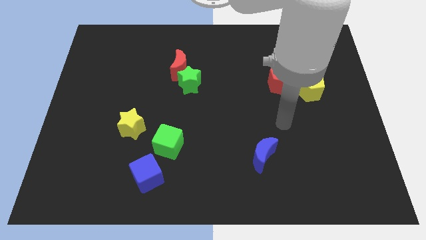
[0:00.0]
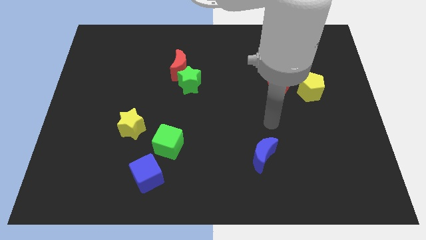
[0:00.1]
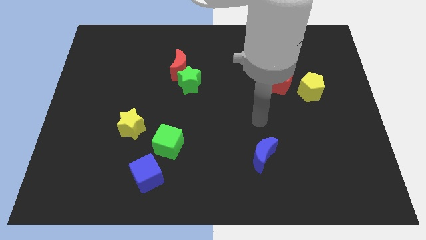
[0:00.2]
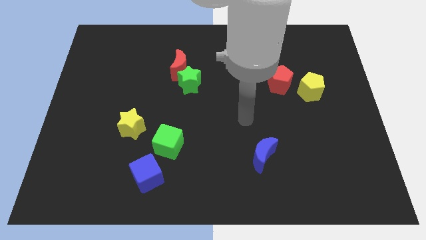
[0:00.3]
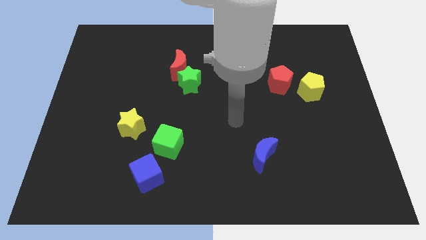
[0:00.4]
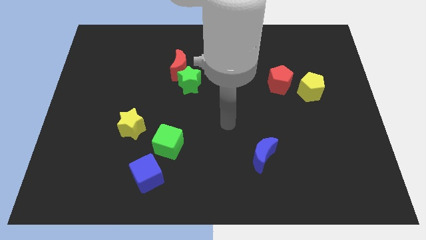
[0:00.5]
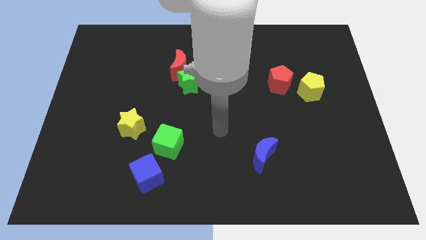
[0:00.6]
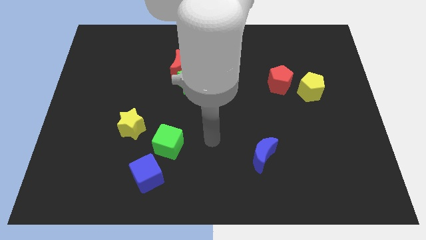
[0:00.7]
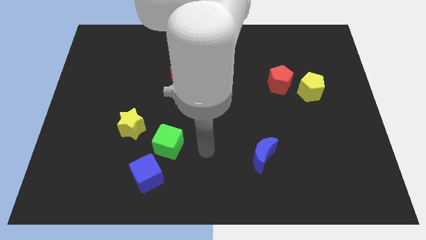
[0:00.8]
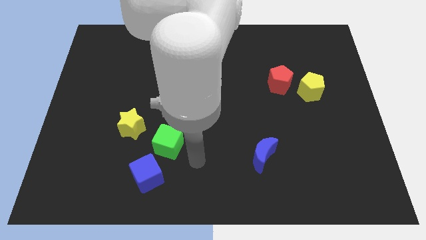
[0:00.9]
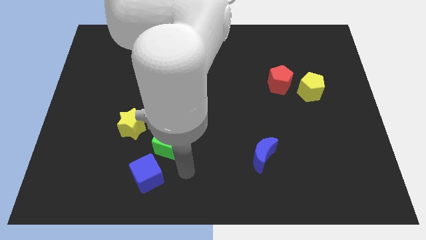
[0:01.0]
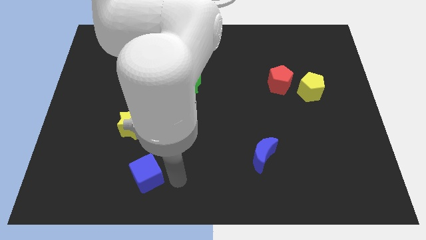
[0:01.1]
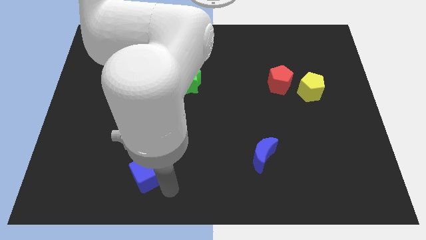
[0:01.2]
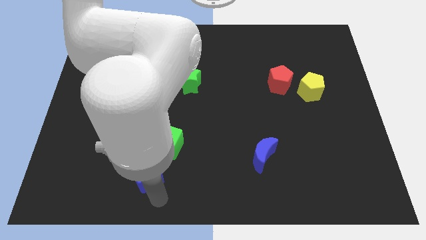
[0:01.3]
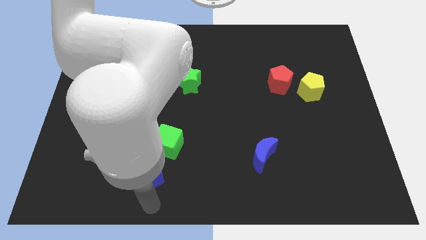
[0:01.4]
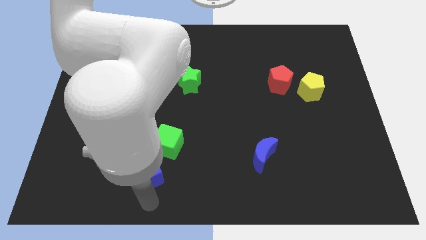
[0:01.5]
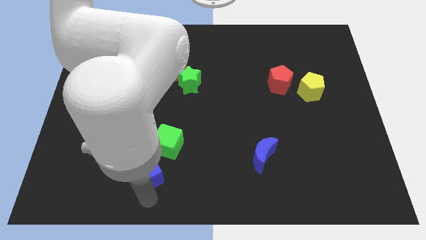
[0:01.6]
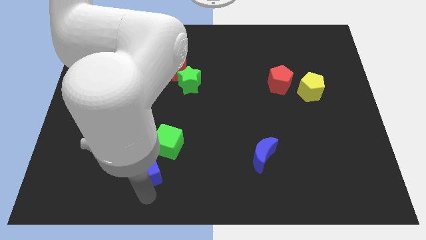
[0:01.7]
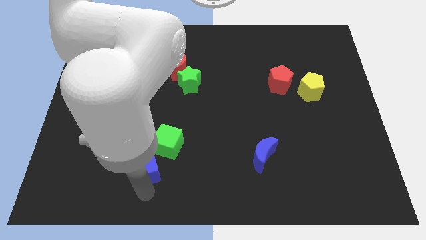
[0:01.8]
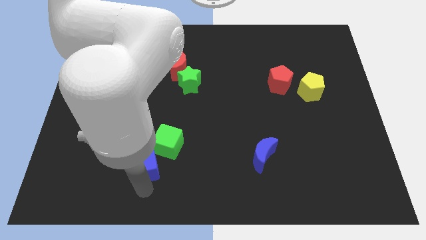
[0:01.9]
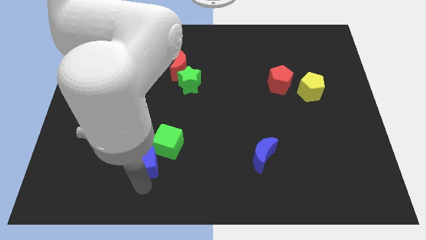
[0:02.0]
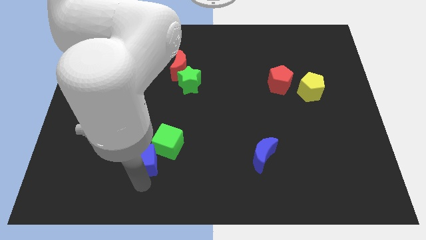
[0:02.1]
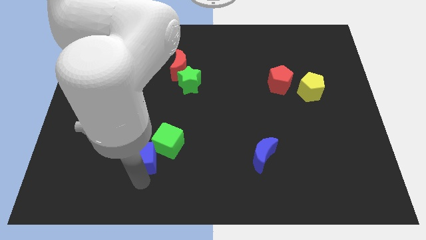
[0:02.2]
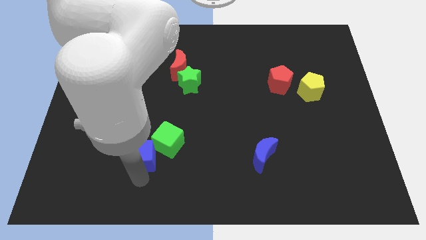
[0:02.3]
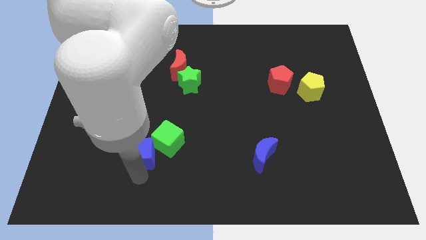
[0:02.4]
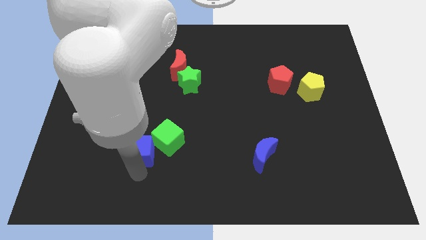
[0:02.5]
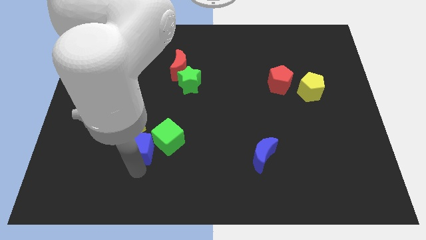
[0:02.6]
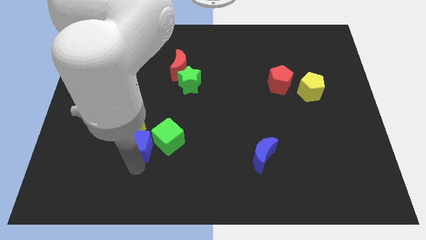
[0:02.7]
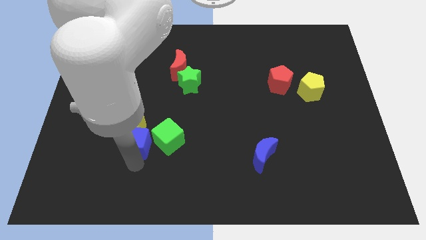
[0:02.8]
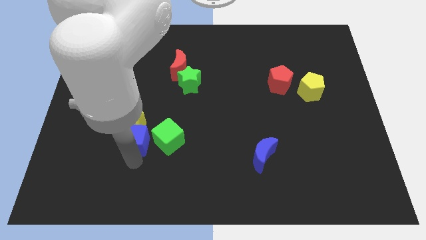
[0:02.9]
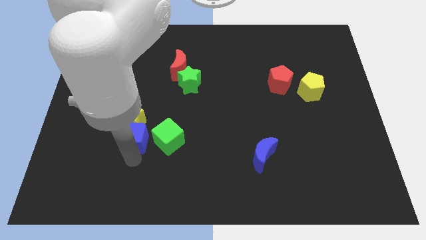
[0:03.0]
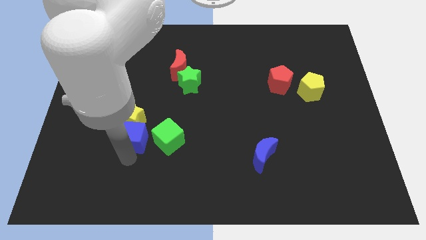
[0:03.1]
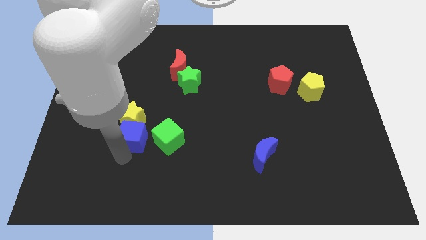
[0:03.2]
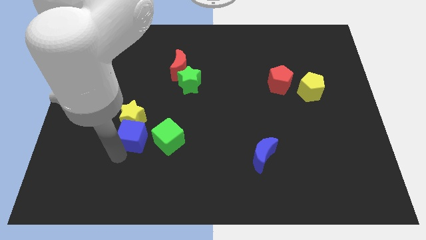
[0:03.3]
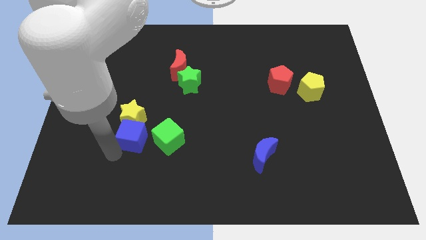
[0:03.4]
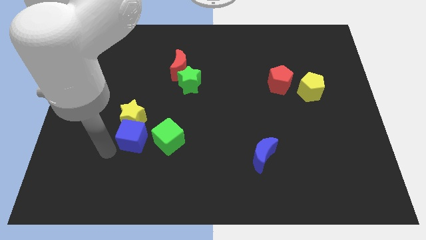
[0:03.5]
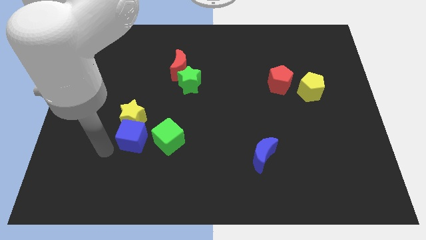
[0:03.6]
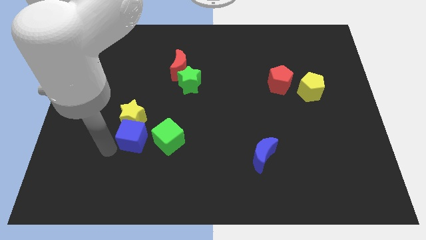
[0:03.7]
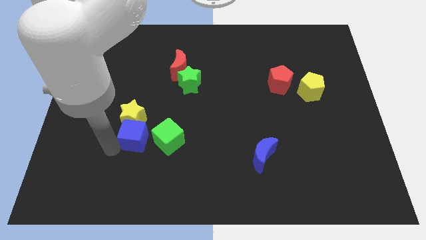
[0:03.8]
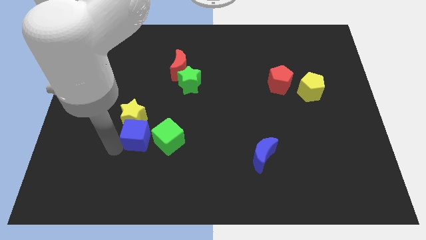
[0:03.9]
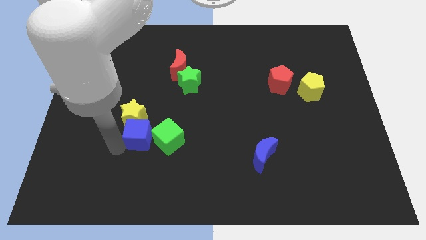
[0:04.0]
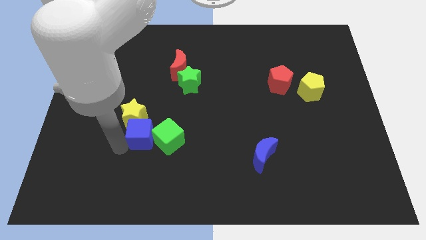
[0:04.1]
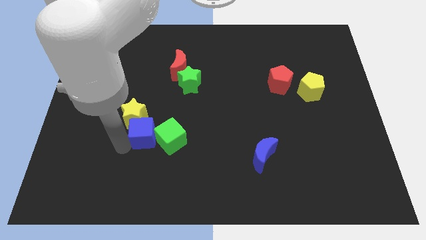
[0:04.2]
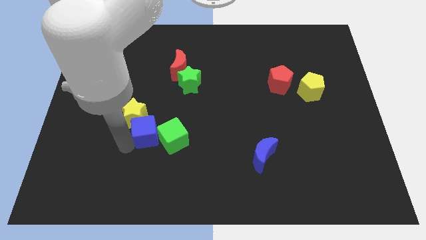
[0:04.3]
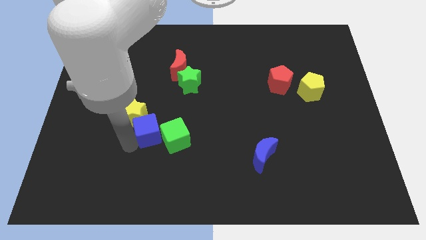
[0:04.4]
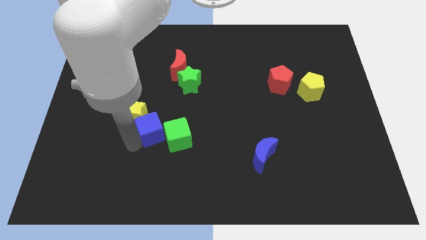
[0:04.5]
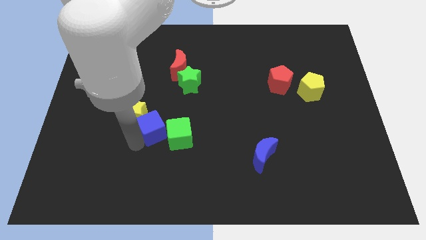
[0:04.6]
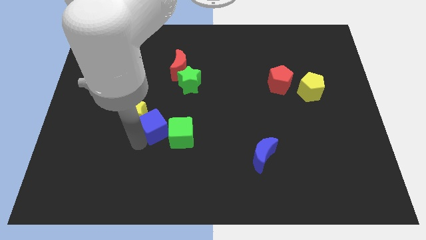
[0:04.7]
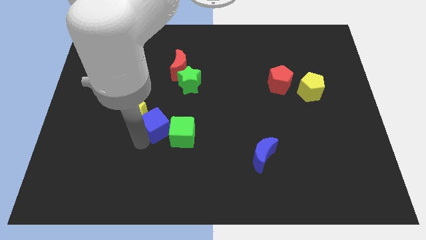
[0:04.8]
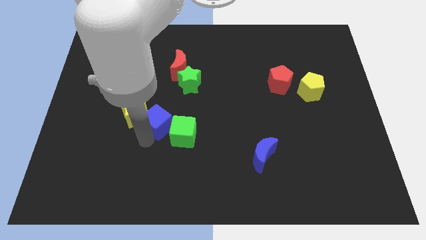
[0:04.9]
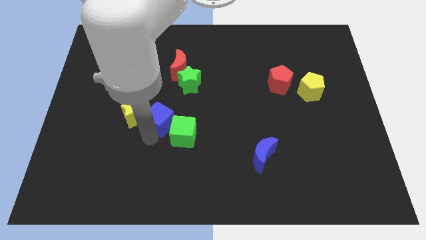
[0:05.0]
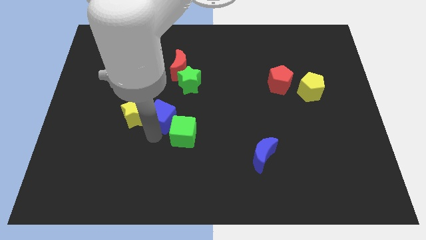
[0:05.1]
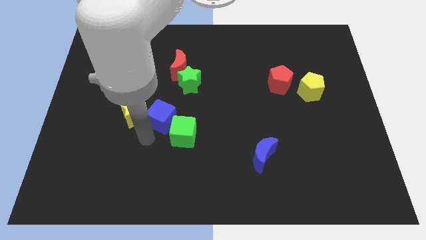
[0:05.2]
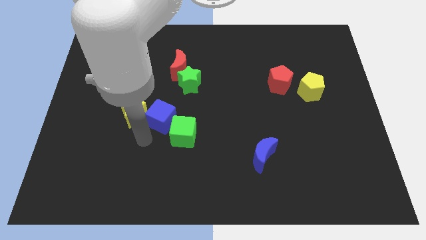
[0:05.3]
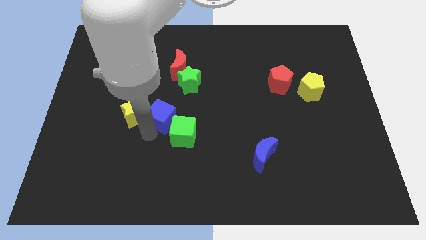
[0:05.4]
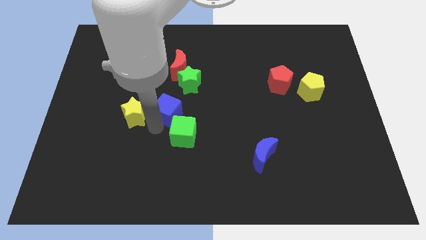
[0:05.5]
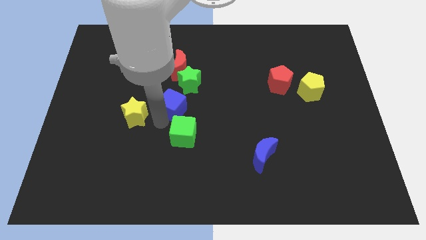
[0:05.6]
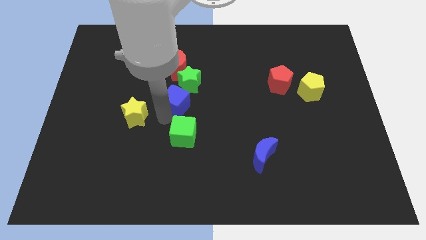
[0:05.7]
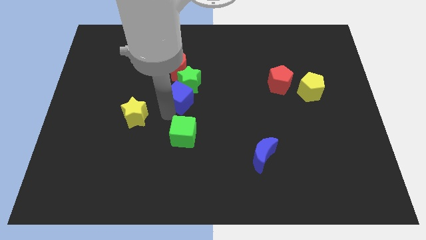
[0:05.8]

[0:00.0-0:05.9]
put the blue cube towards the green star

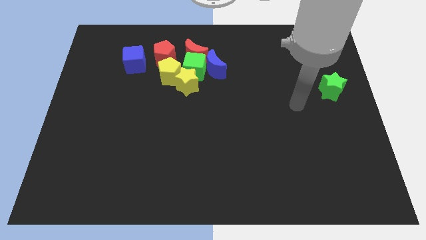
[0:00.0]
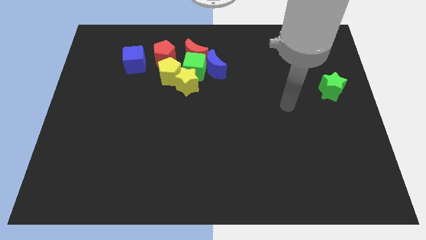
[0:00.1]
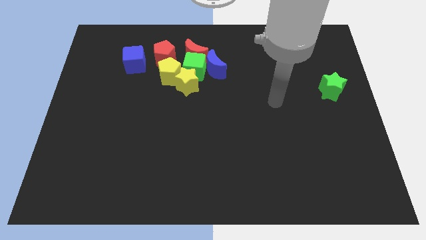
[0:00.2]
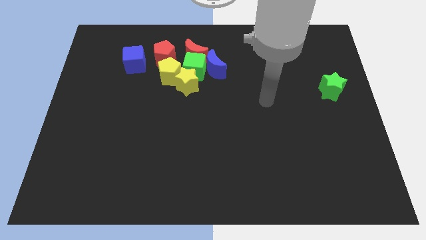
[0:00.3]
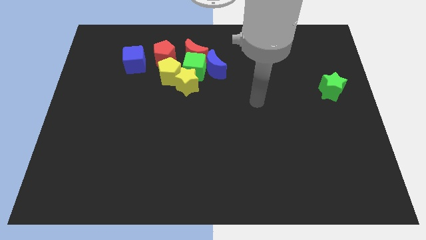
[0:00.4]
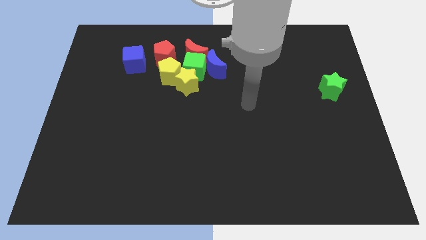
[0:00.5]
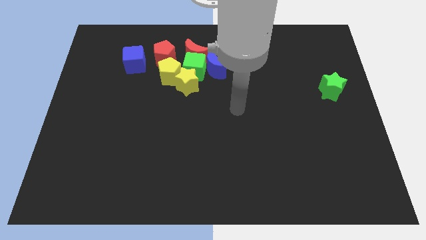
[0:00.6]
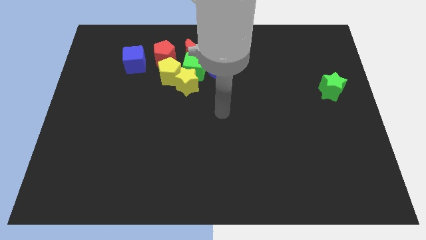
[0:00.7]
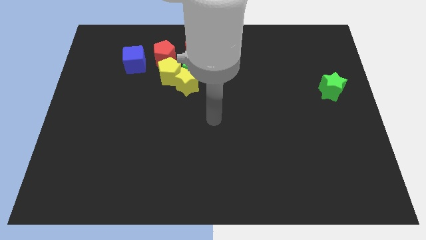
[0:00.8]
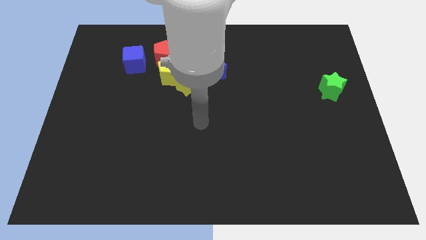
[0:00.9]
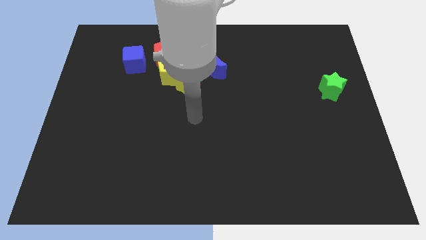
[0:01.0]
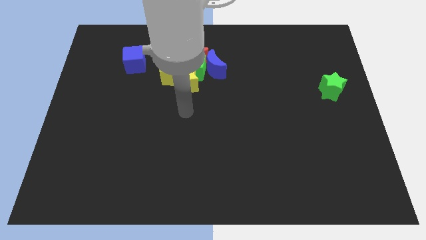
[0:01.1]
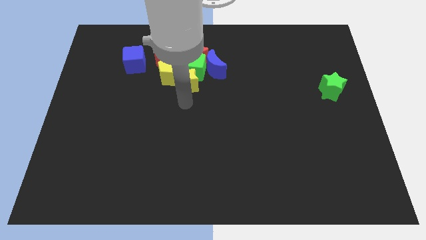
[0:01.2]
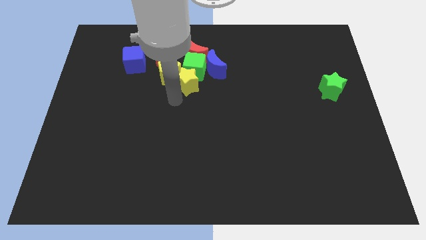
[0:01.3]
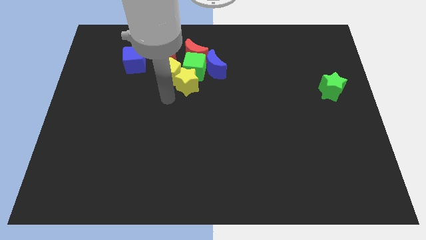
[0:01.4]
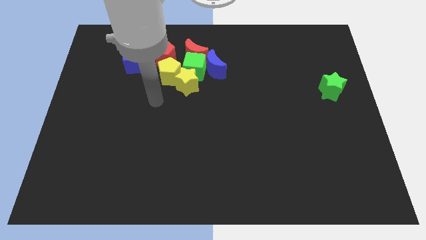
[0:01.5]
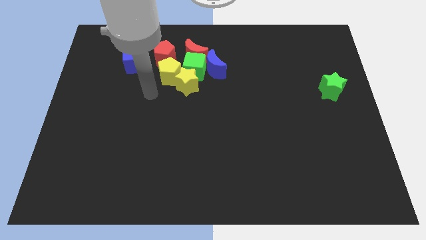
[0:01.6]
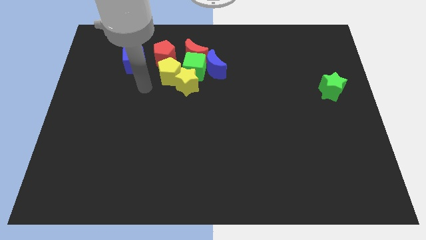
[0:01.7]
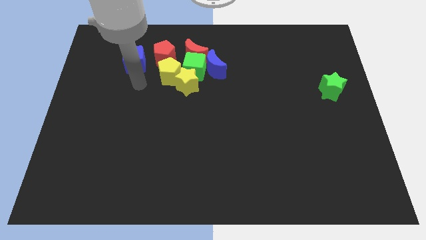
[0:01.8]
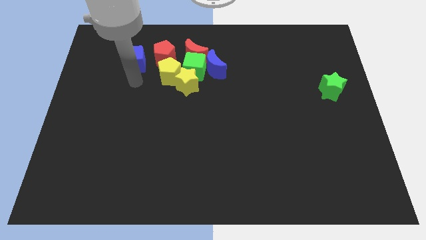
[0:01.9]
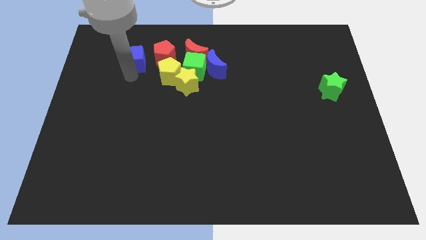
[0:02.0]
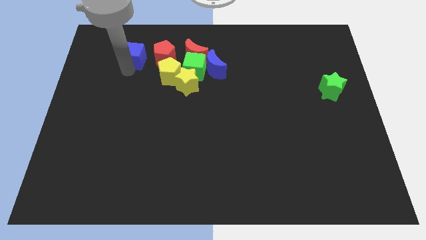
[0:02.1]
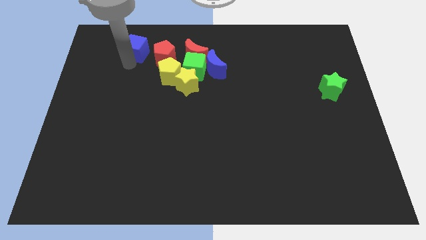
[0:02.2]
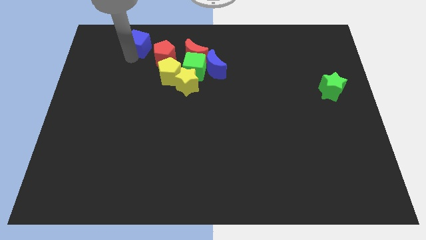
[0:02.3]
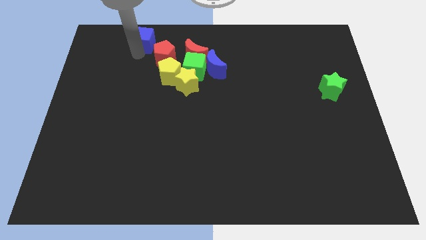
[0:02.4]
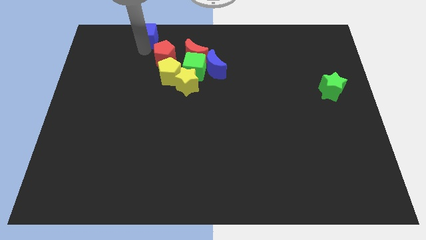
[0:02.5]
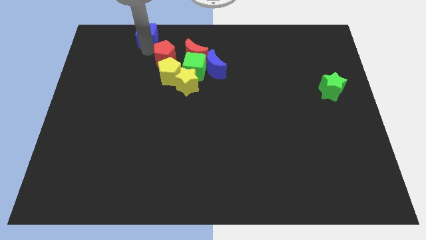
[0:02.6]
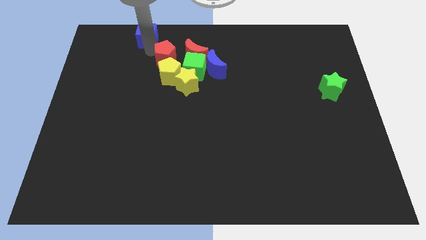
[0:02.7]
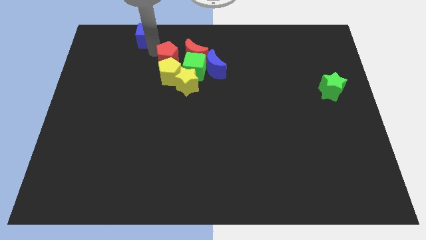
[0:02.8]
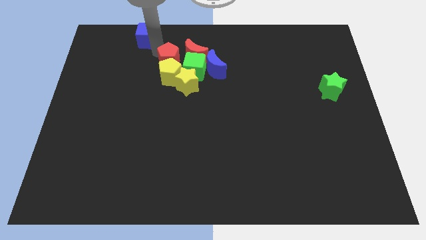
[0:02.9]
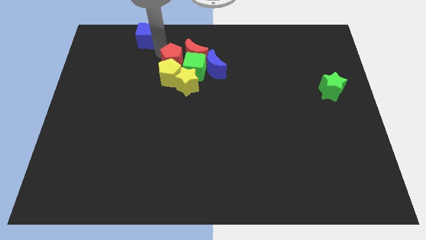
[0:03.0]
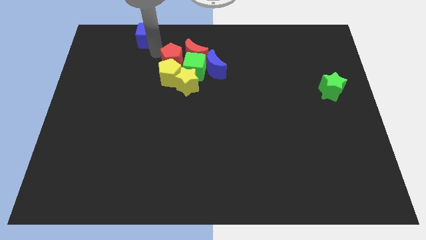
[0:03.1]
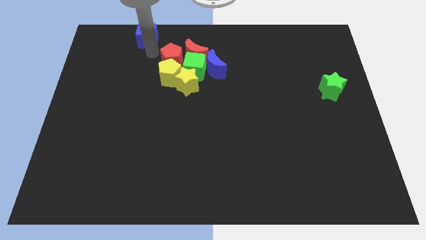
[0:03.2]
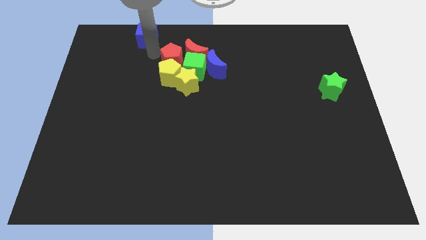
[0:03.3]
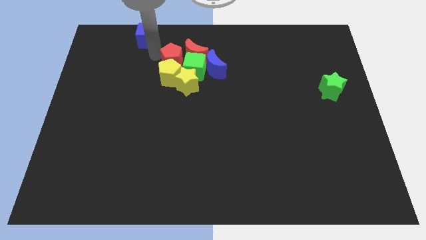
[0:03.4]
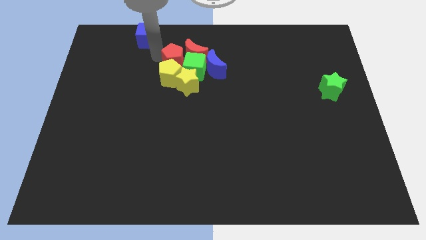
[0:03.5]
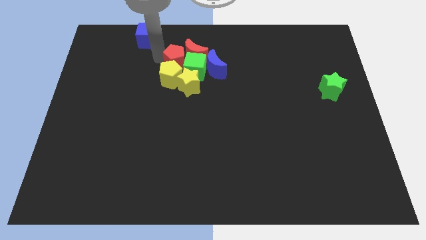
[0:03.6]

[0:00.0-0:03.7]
slide the red pentagon to the green cube
